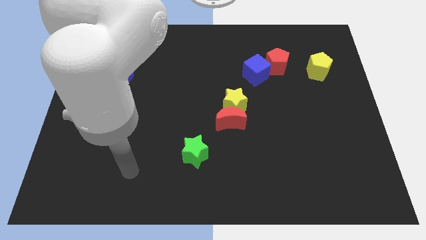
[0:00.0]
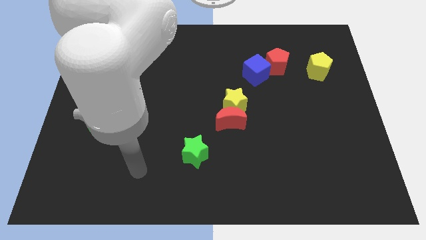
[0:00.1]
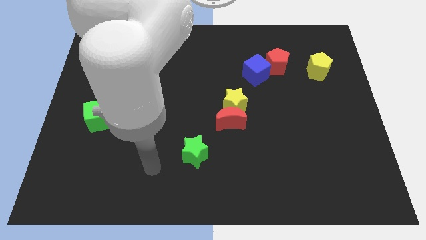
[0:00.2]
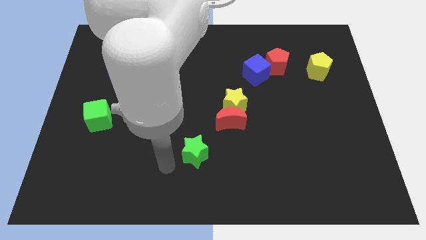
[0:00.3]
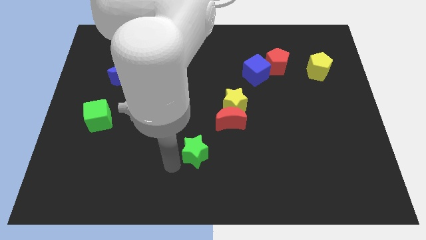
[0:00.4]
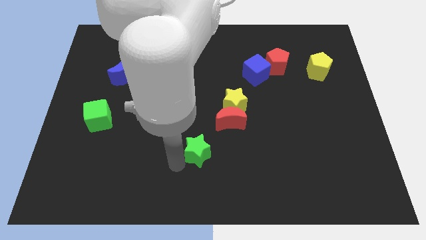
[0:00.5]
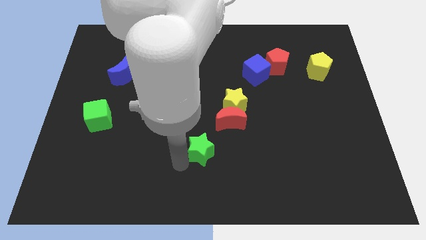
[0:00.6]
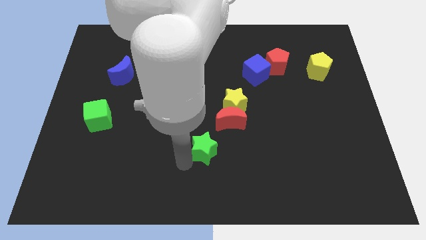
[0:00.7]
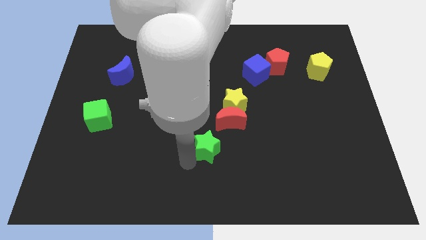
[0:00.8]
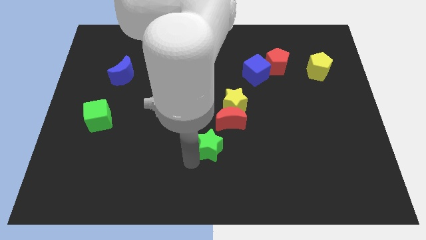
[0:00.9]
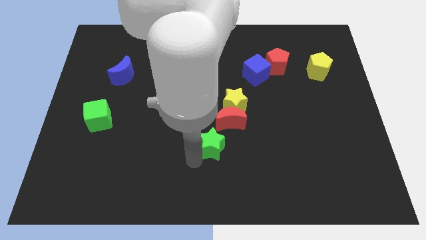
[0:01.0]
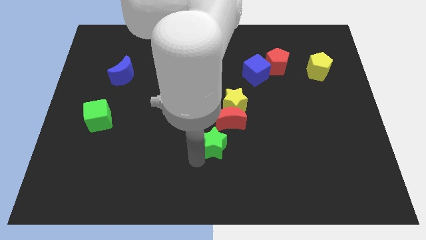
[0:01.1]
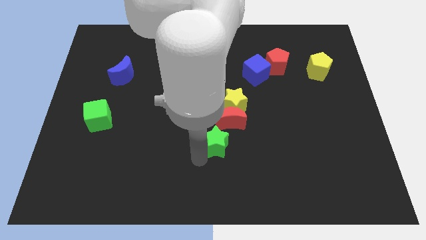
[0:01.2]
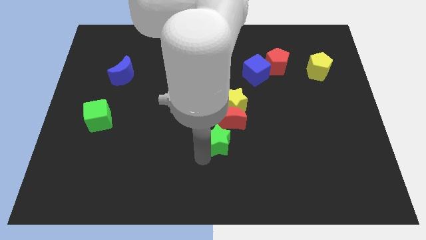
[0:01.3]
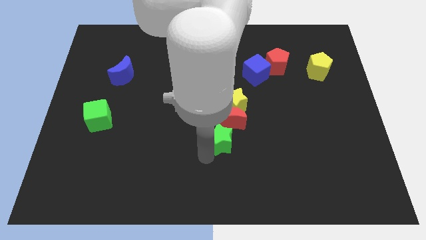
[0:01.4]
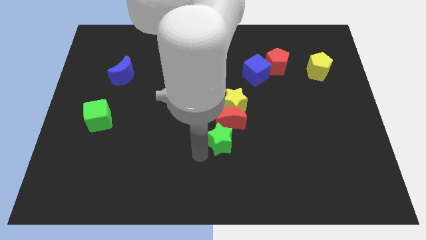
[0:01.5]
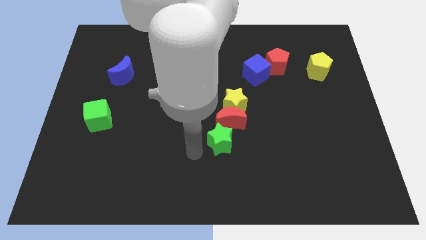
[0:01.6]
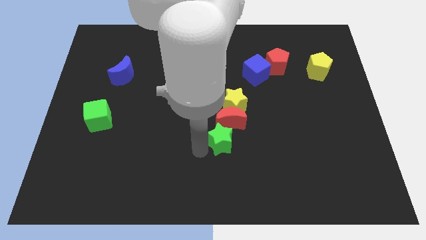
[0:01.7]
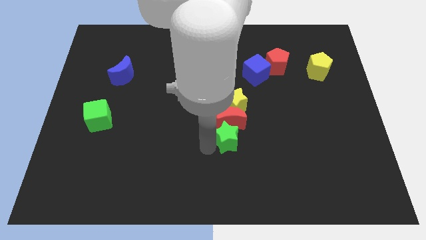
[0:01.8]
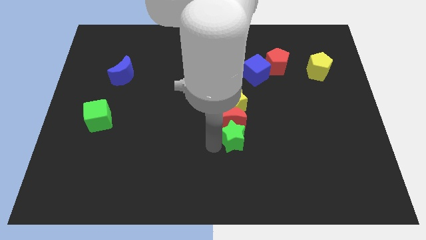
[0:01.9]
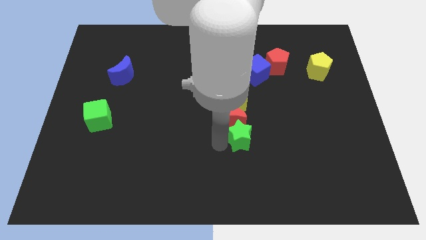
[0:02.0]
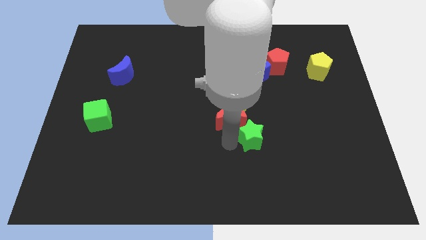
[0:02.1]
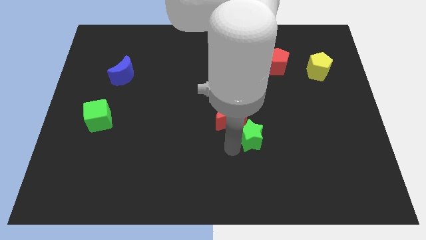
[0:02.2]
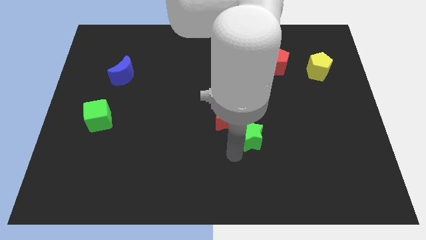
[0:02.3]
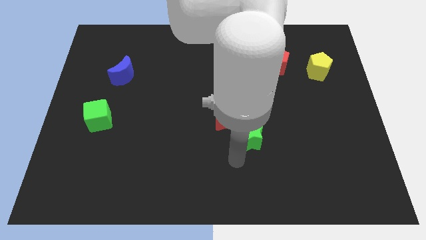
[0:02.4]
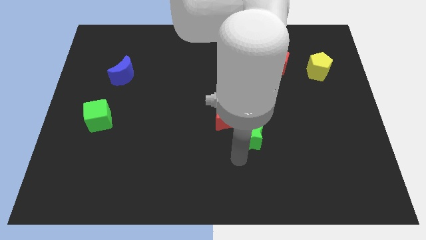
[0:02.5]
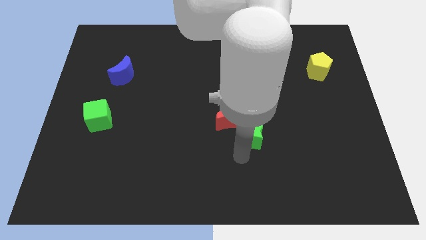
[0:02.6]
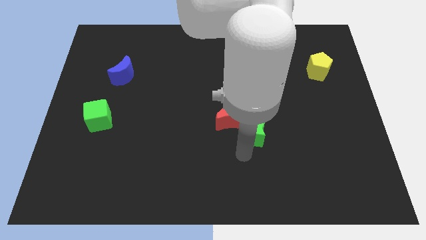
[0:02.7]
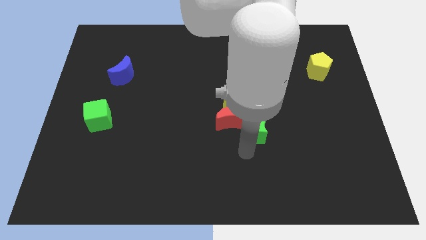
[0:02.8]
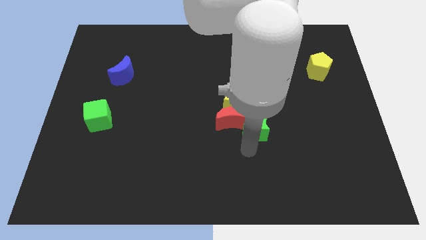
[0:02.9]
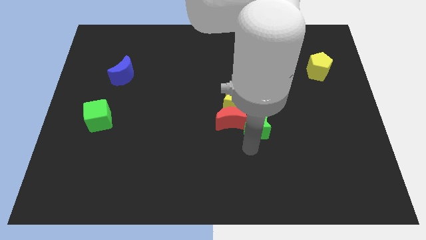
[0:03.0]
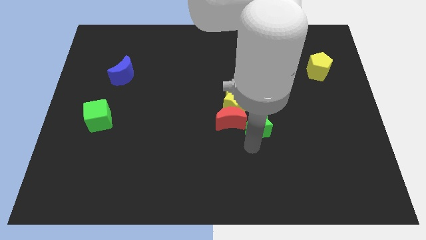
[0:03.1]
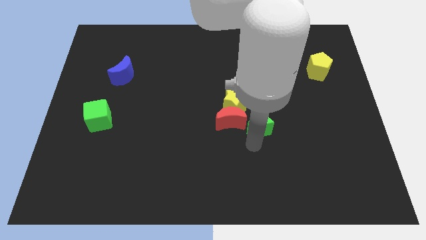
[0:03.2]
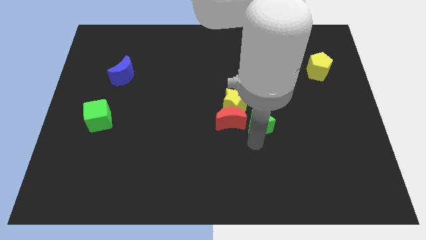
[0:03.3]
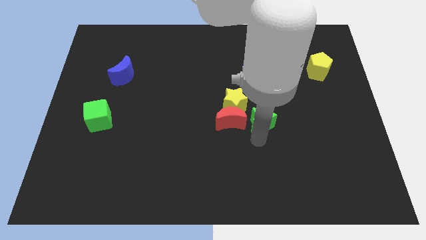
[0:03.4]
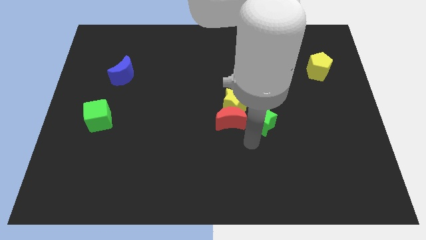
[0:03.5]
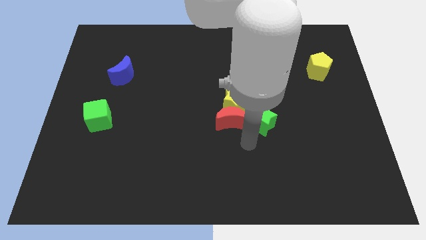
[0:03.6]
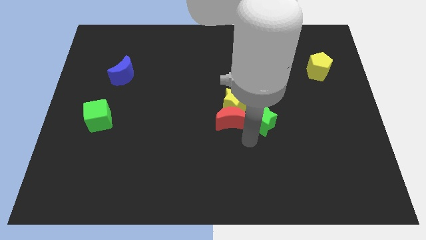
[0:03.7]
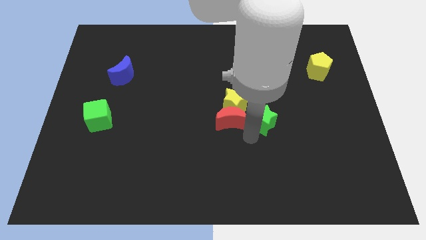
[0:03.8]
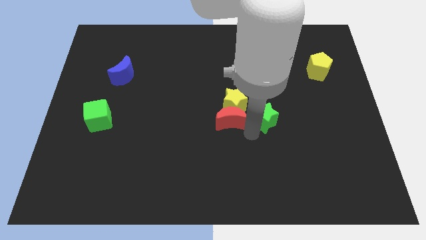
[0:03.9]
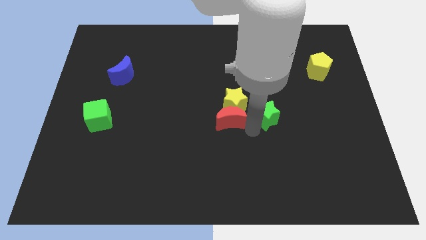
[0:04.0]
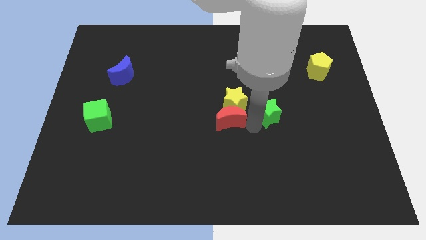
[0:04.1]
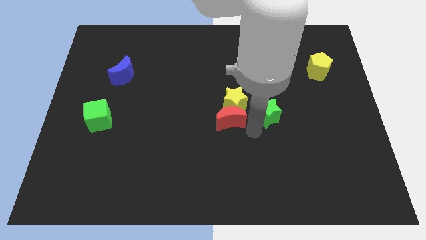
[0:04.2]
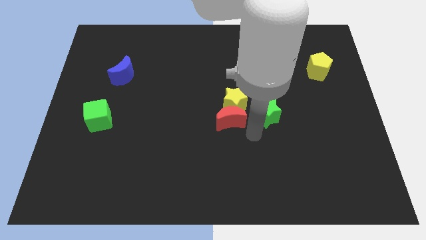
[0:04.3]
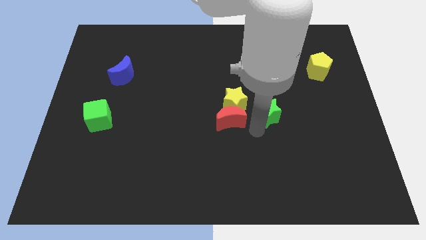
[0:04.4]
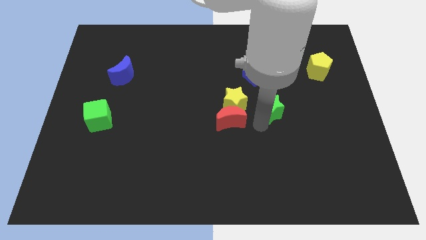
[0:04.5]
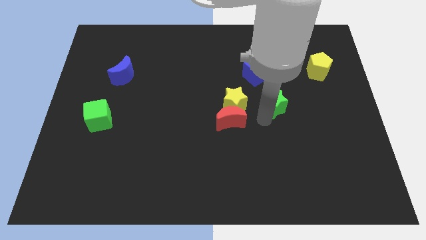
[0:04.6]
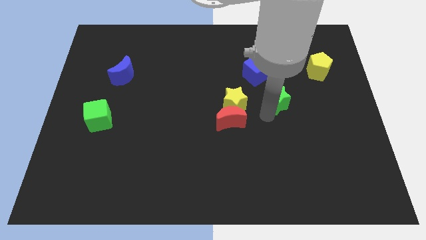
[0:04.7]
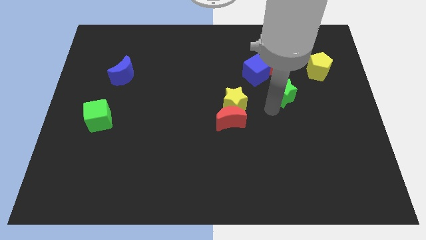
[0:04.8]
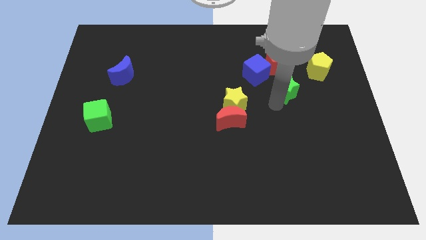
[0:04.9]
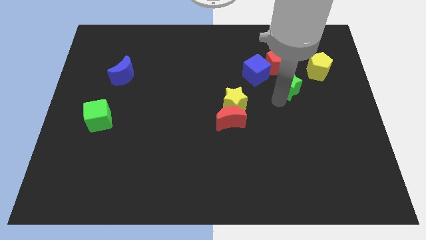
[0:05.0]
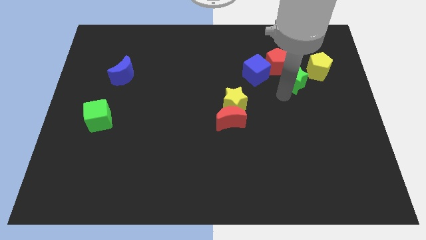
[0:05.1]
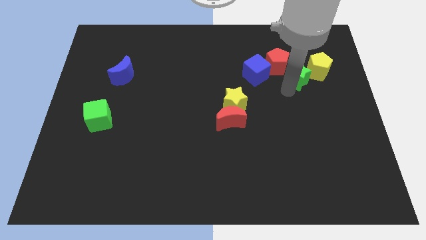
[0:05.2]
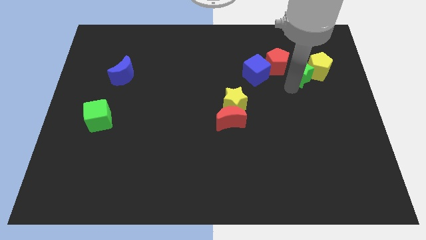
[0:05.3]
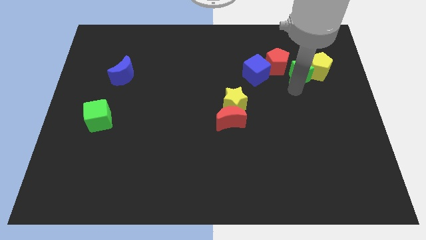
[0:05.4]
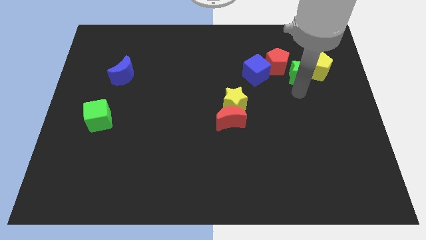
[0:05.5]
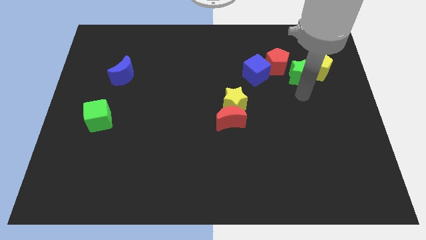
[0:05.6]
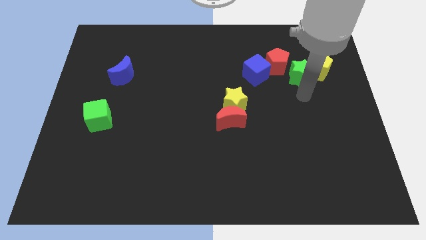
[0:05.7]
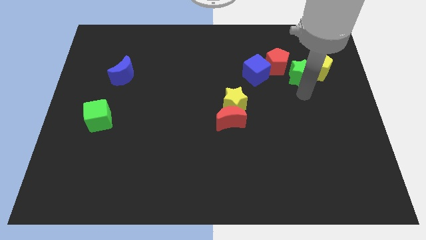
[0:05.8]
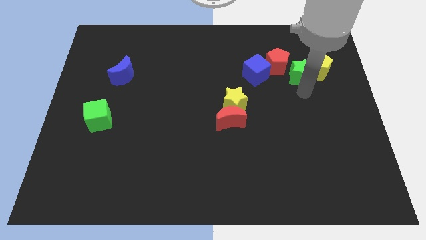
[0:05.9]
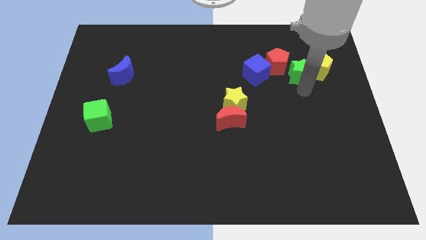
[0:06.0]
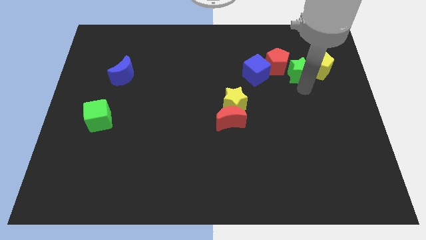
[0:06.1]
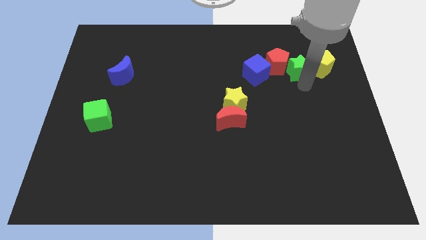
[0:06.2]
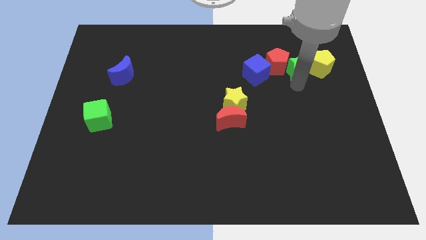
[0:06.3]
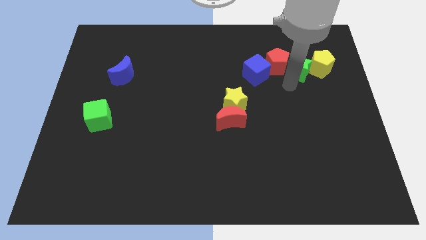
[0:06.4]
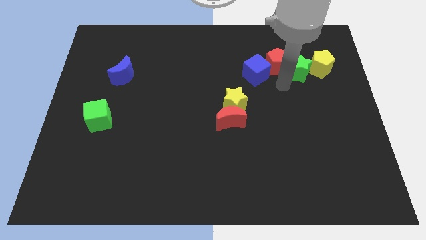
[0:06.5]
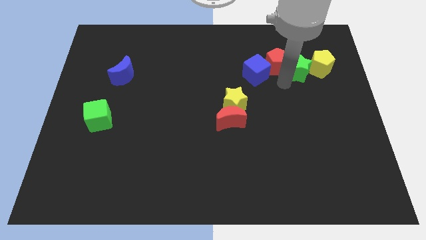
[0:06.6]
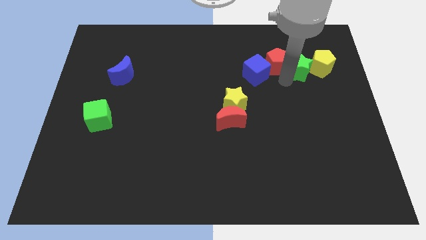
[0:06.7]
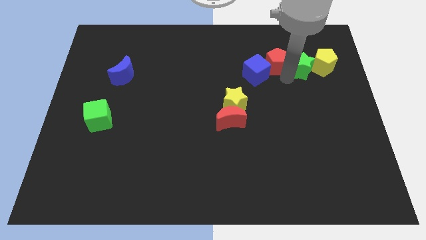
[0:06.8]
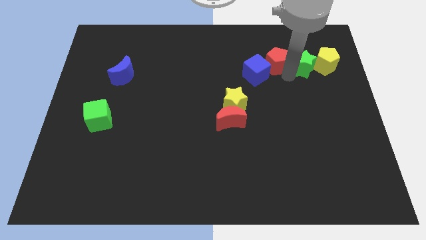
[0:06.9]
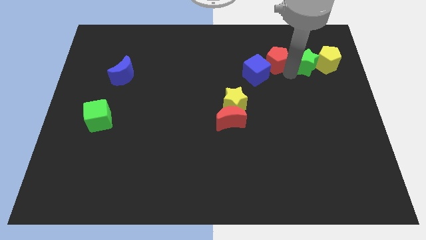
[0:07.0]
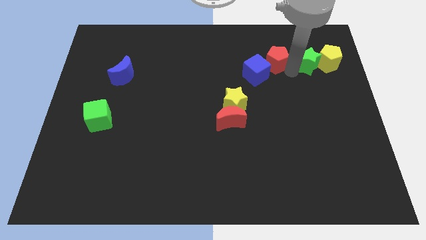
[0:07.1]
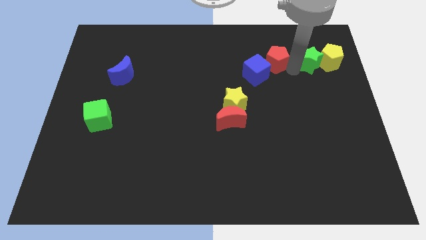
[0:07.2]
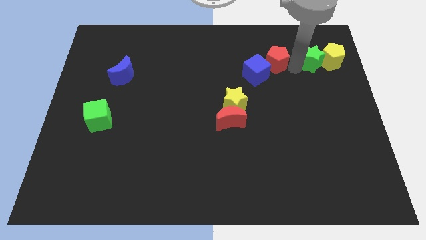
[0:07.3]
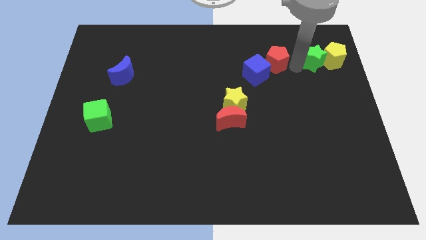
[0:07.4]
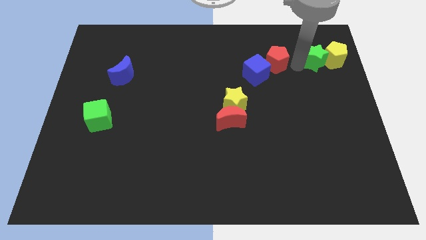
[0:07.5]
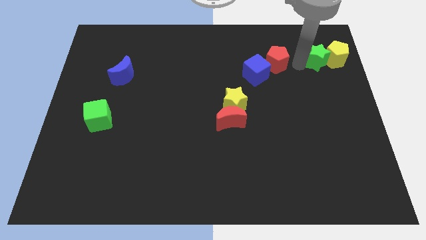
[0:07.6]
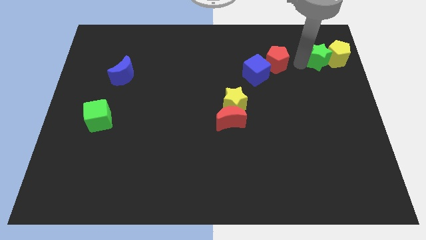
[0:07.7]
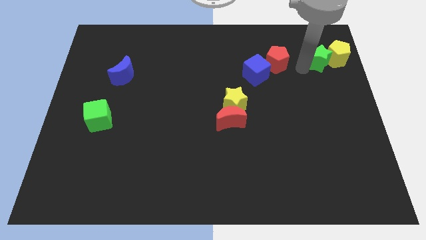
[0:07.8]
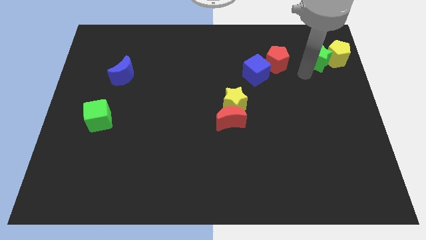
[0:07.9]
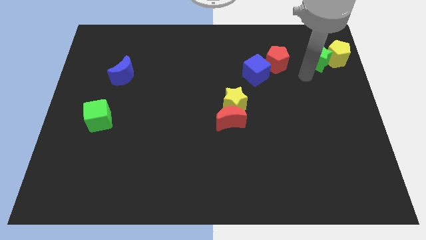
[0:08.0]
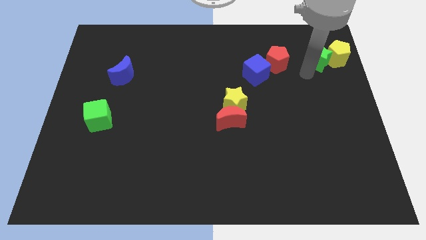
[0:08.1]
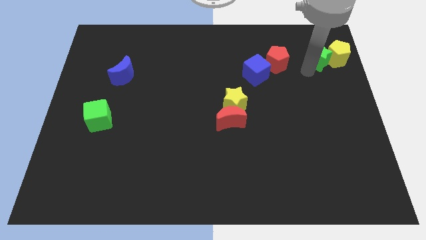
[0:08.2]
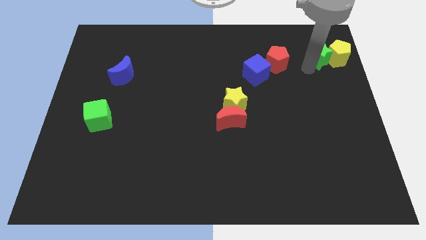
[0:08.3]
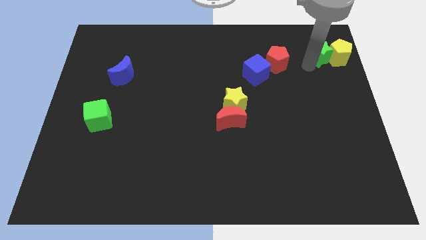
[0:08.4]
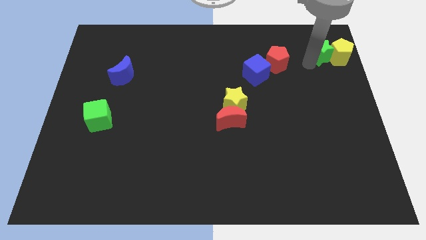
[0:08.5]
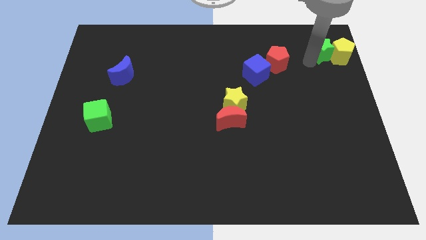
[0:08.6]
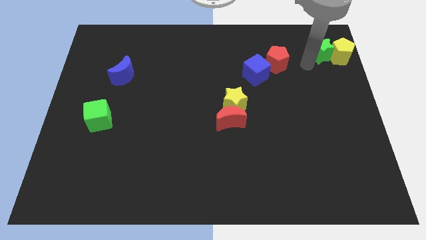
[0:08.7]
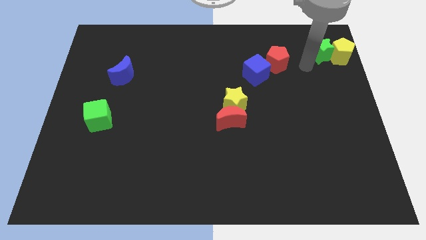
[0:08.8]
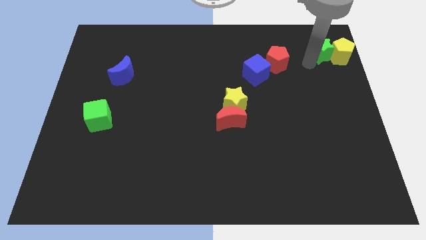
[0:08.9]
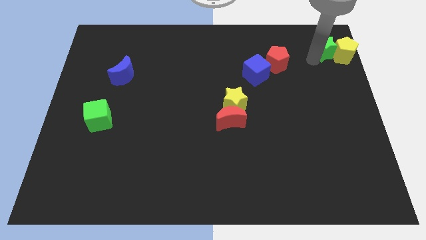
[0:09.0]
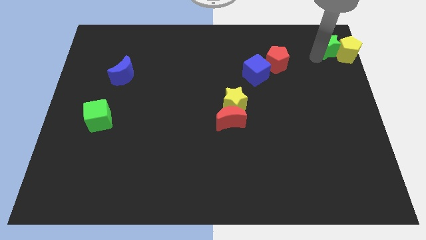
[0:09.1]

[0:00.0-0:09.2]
slide the green star to the top right corner
